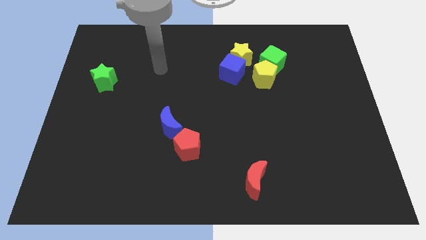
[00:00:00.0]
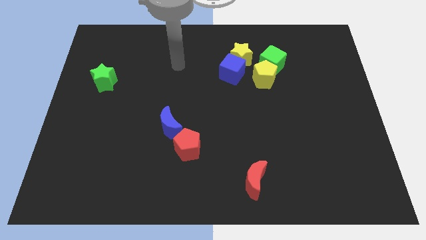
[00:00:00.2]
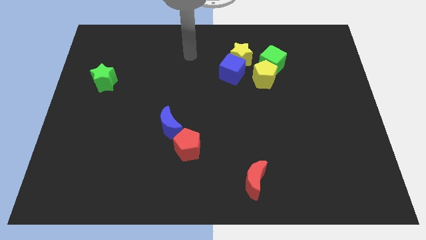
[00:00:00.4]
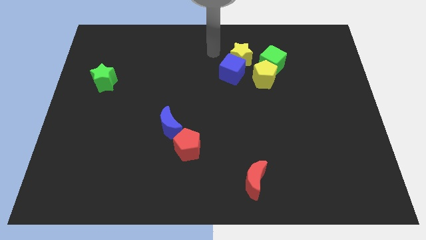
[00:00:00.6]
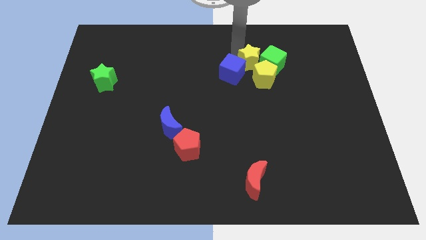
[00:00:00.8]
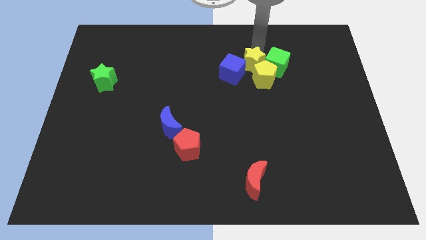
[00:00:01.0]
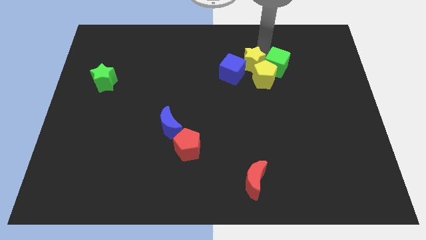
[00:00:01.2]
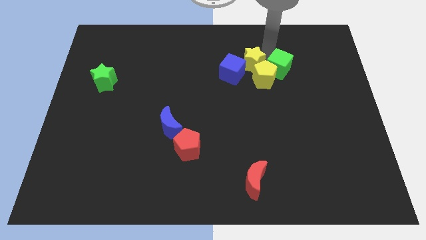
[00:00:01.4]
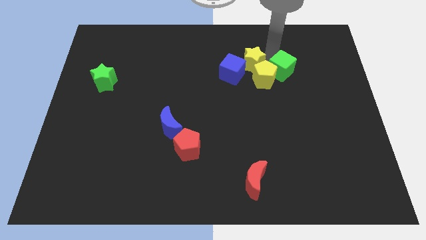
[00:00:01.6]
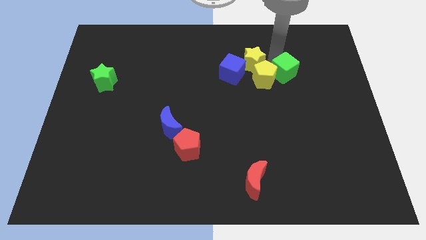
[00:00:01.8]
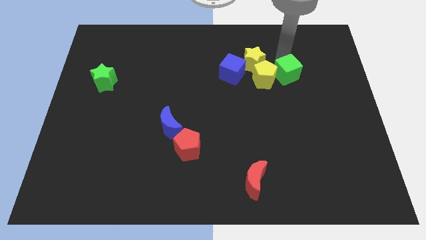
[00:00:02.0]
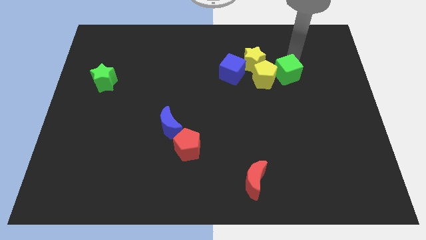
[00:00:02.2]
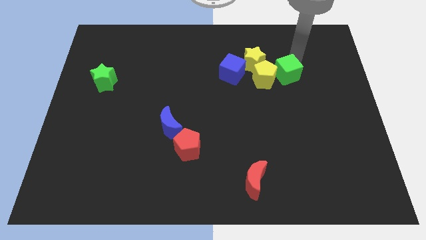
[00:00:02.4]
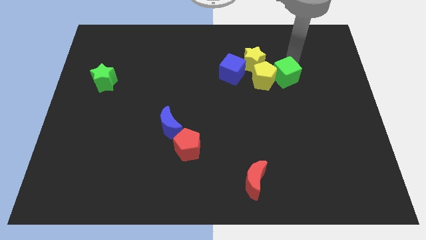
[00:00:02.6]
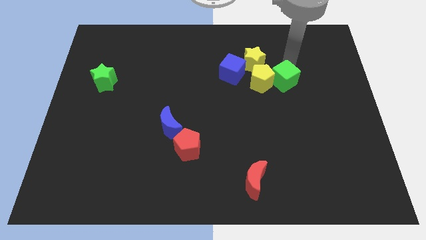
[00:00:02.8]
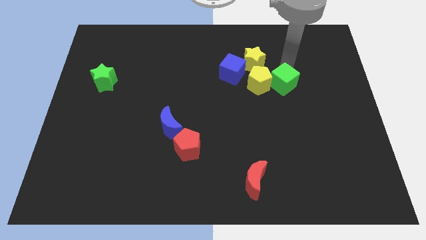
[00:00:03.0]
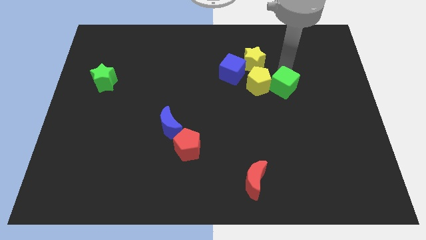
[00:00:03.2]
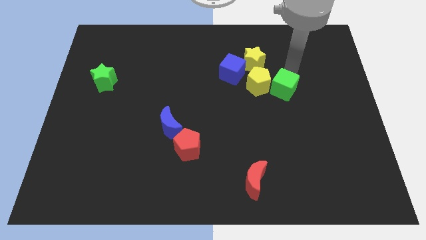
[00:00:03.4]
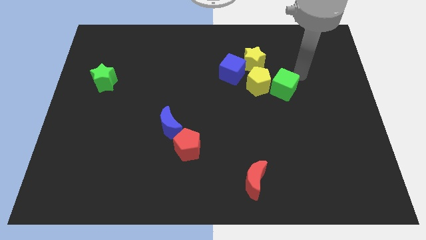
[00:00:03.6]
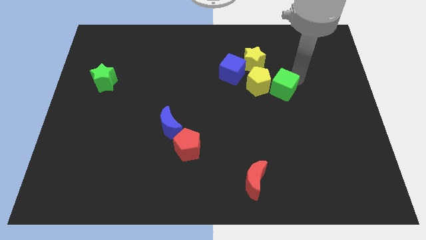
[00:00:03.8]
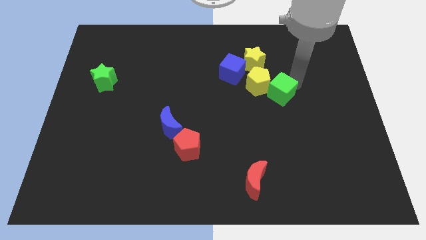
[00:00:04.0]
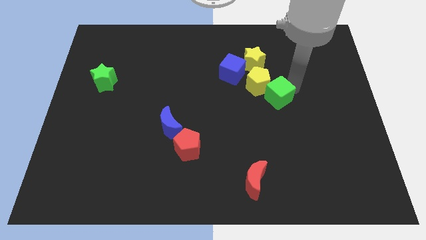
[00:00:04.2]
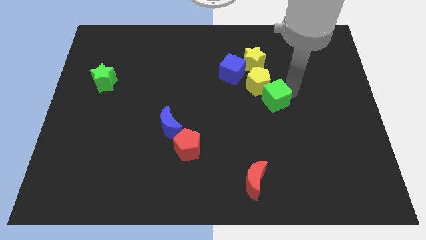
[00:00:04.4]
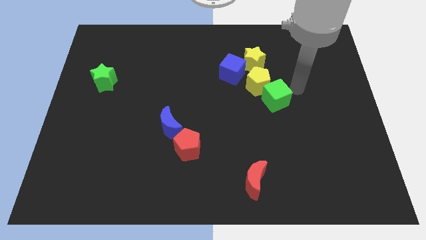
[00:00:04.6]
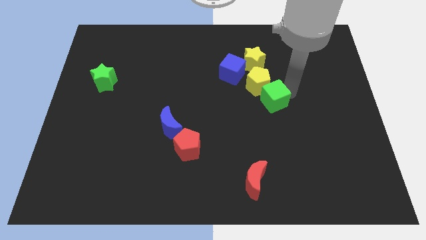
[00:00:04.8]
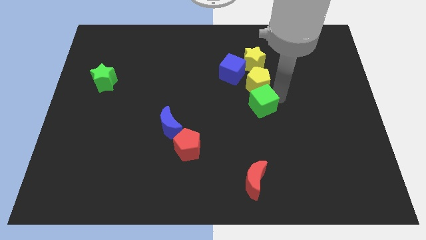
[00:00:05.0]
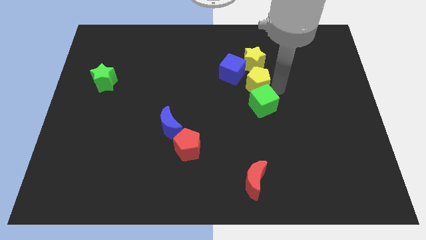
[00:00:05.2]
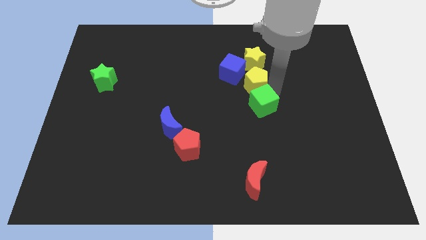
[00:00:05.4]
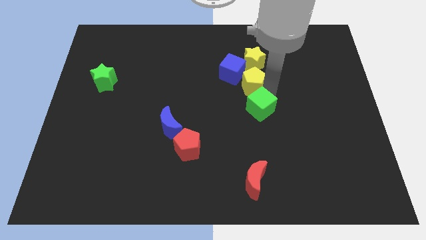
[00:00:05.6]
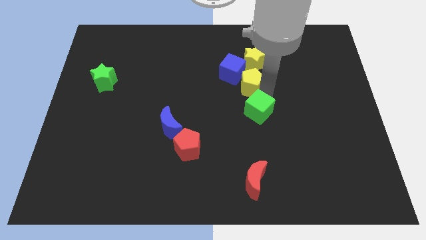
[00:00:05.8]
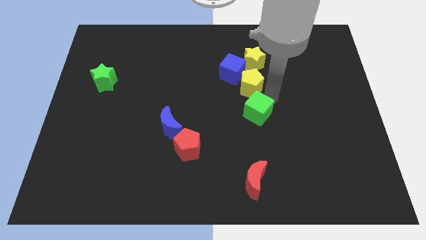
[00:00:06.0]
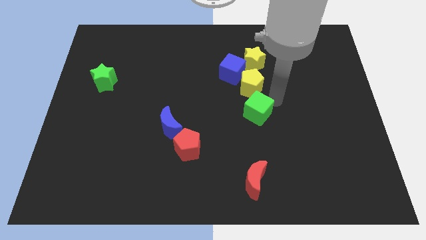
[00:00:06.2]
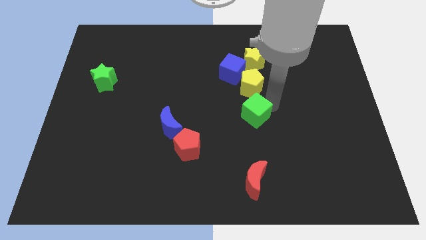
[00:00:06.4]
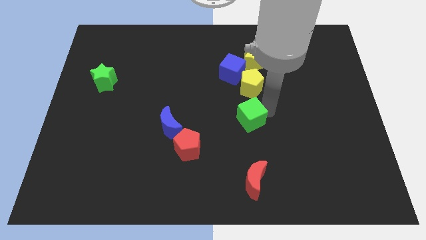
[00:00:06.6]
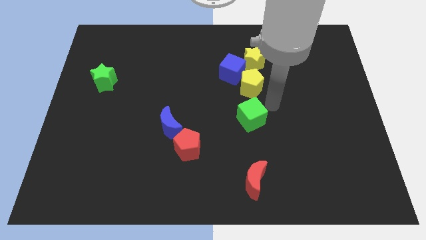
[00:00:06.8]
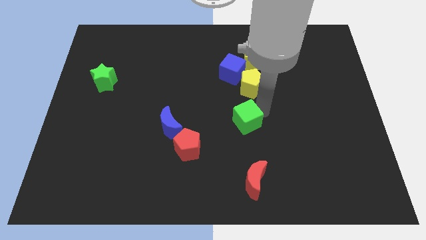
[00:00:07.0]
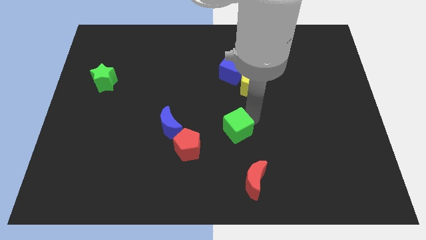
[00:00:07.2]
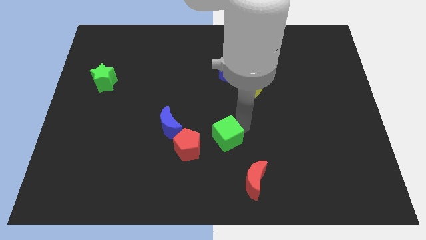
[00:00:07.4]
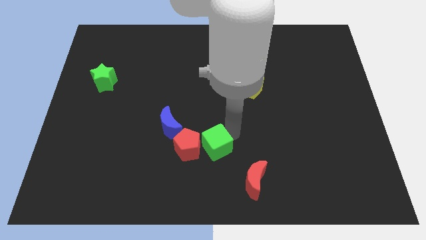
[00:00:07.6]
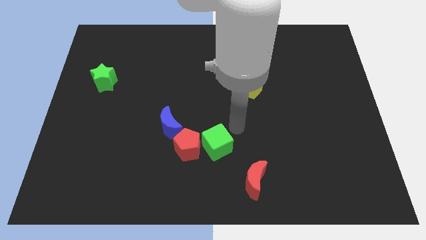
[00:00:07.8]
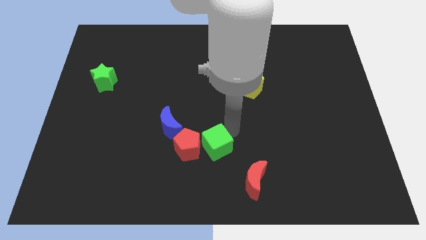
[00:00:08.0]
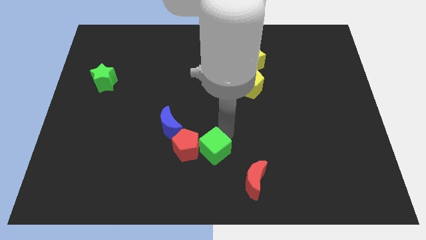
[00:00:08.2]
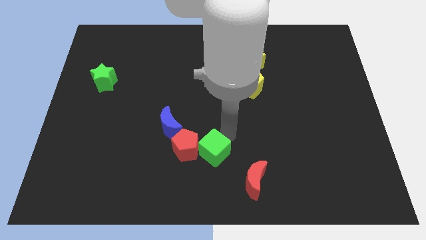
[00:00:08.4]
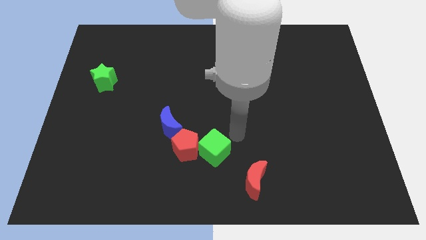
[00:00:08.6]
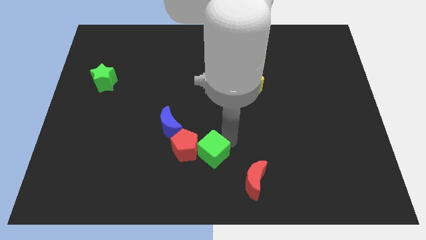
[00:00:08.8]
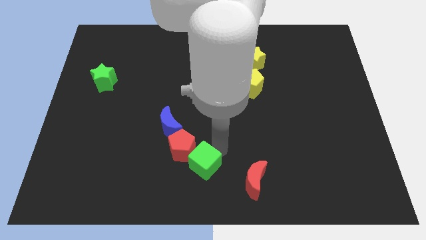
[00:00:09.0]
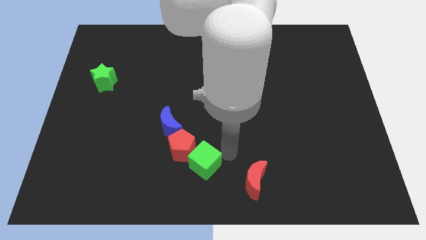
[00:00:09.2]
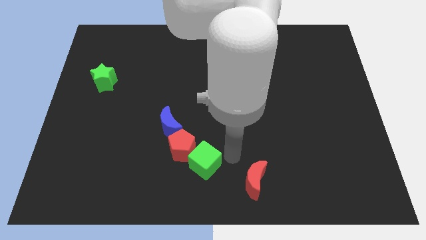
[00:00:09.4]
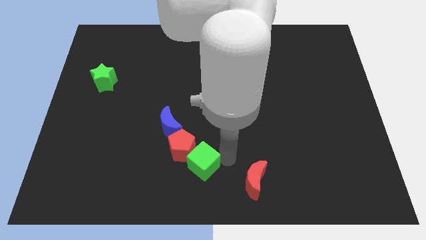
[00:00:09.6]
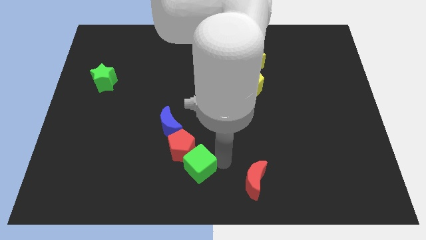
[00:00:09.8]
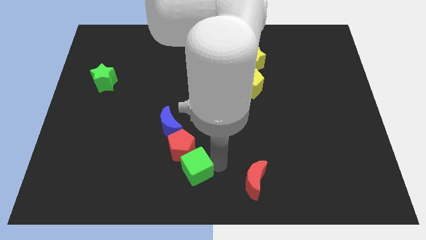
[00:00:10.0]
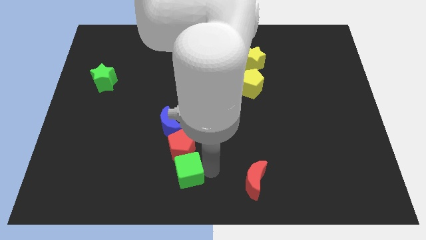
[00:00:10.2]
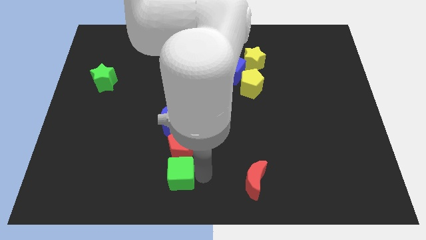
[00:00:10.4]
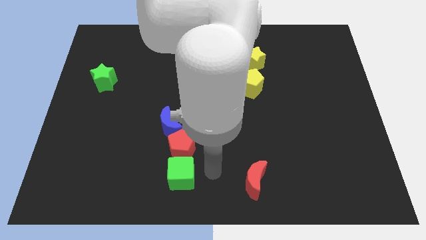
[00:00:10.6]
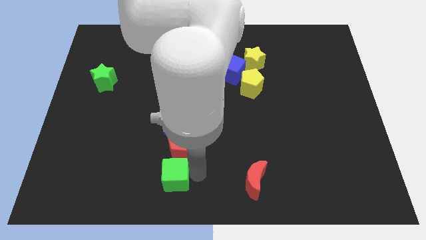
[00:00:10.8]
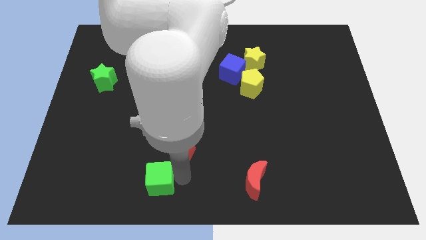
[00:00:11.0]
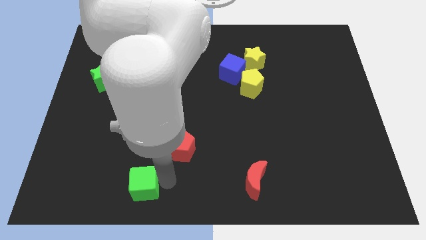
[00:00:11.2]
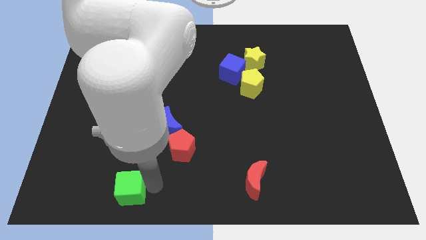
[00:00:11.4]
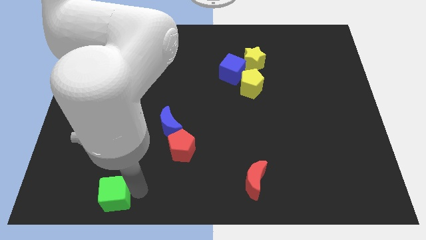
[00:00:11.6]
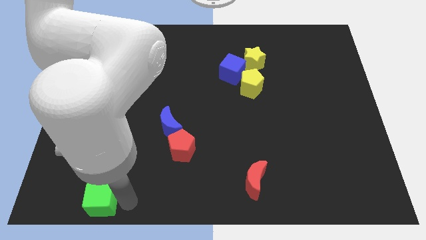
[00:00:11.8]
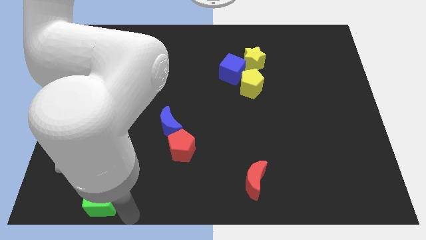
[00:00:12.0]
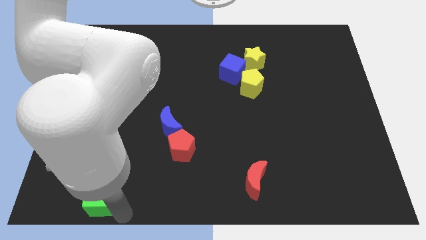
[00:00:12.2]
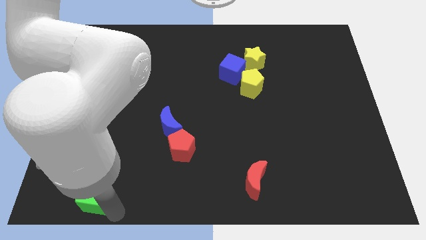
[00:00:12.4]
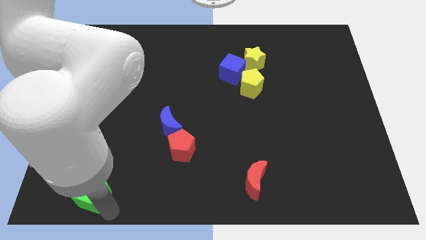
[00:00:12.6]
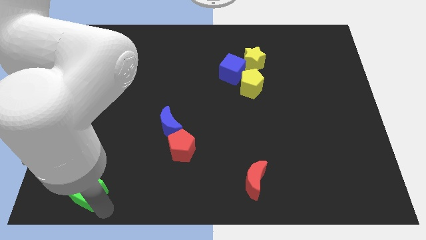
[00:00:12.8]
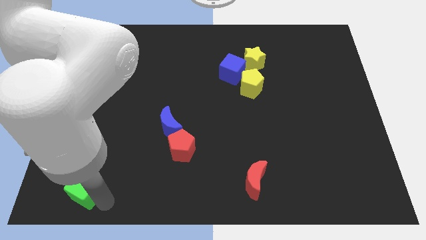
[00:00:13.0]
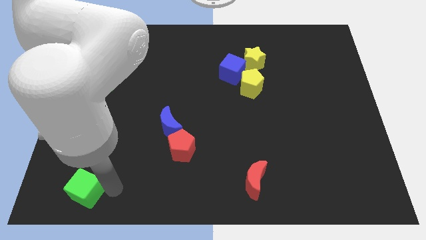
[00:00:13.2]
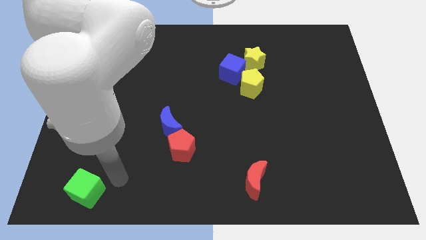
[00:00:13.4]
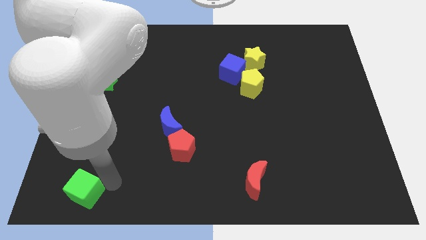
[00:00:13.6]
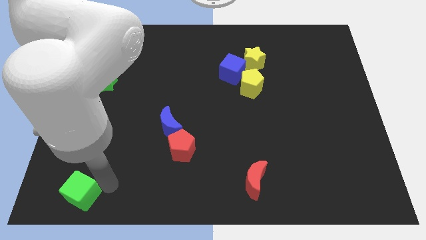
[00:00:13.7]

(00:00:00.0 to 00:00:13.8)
move the green cube to the lower left corner
